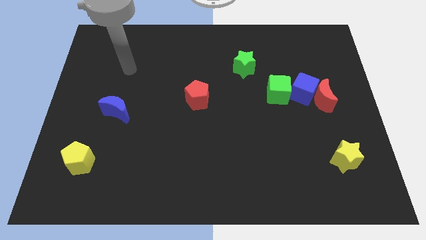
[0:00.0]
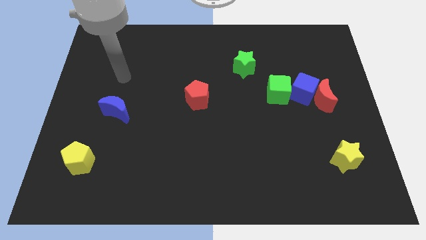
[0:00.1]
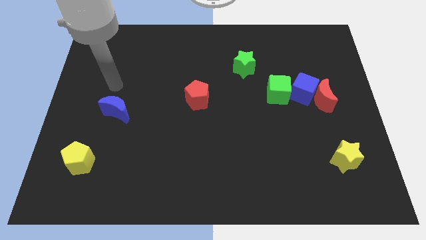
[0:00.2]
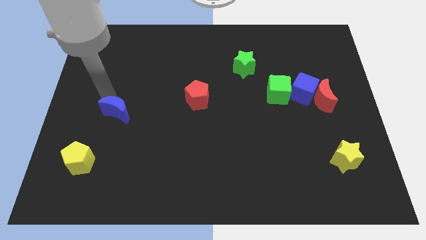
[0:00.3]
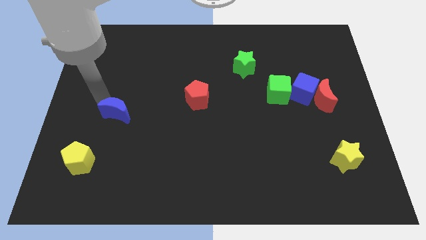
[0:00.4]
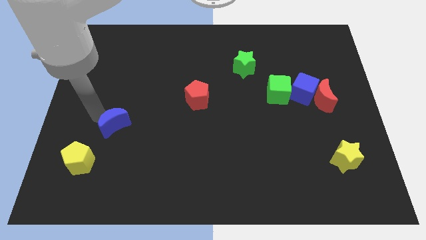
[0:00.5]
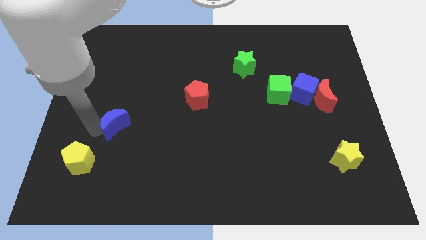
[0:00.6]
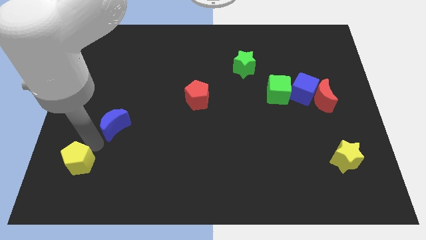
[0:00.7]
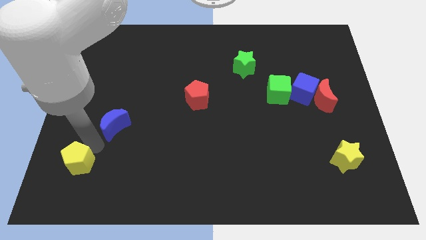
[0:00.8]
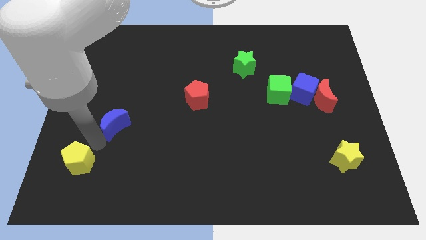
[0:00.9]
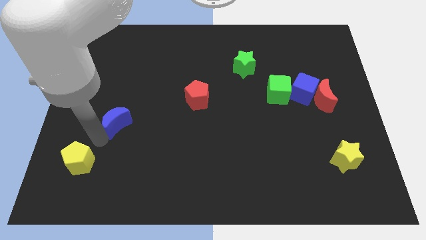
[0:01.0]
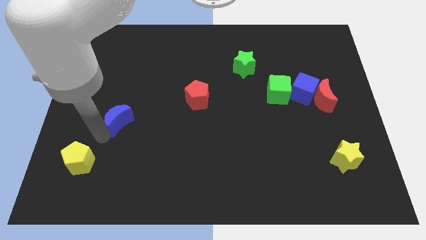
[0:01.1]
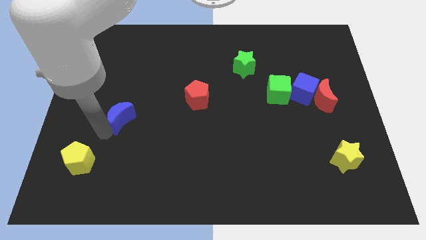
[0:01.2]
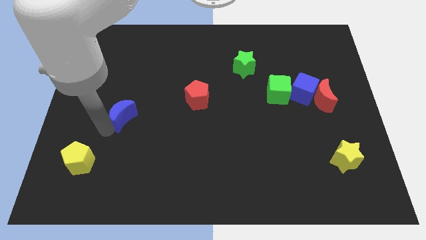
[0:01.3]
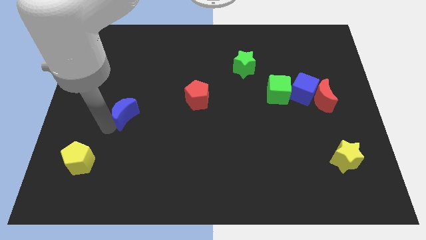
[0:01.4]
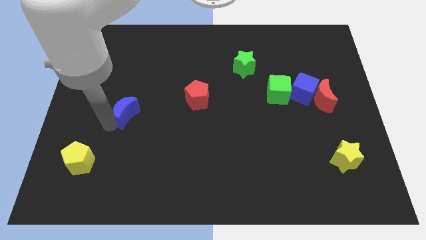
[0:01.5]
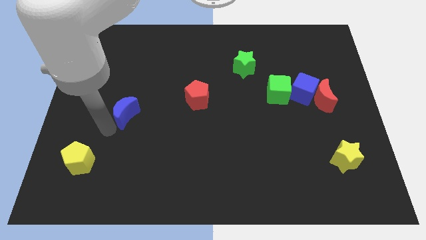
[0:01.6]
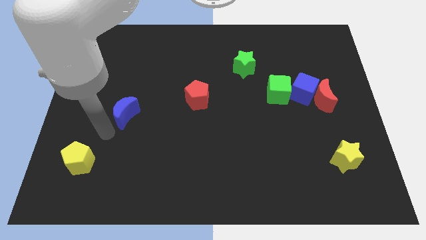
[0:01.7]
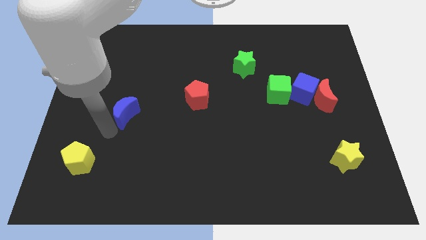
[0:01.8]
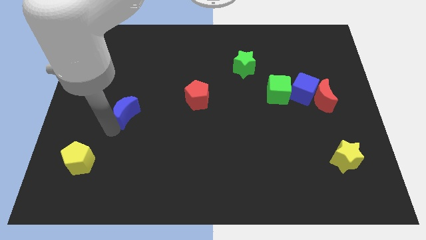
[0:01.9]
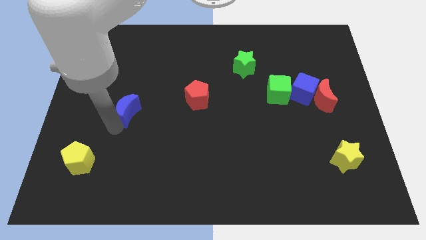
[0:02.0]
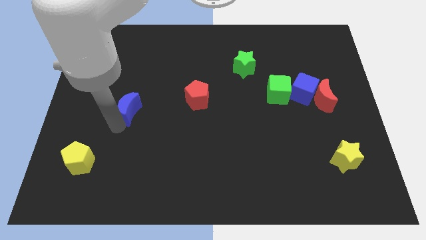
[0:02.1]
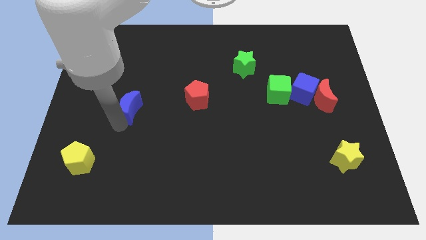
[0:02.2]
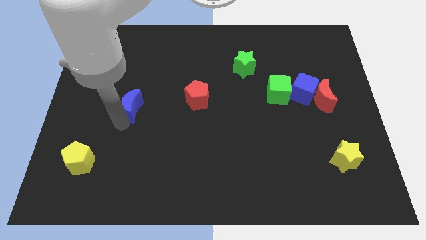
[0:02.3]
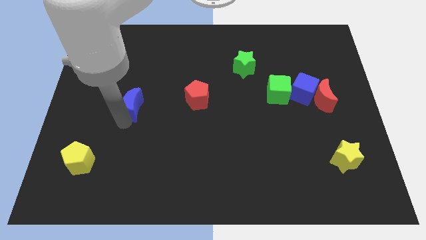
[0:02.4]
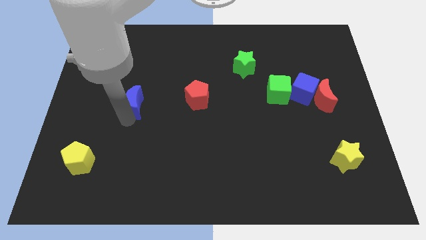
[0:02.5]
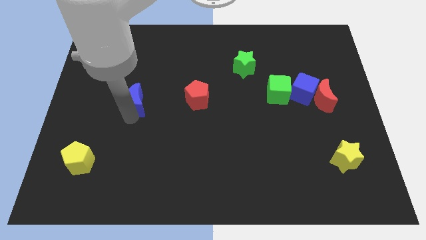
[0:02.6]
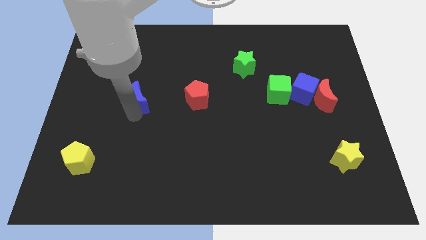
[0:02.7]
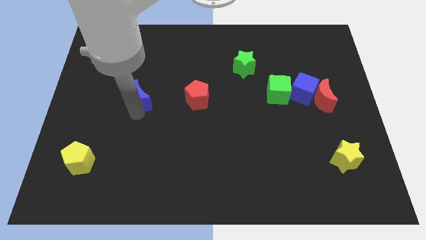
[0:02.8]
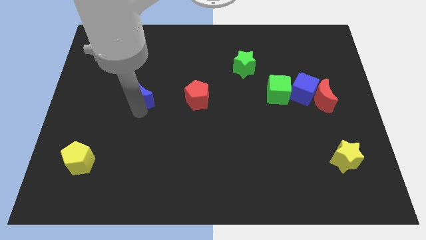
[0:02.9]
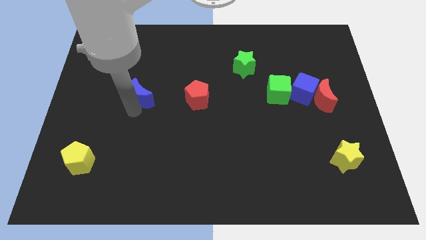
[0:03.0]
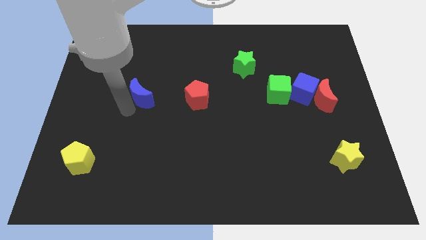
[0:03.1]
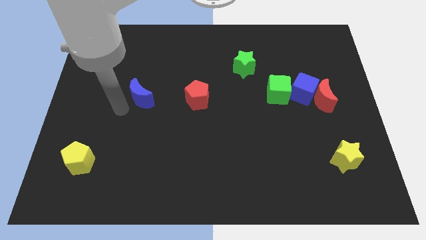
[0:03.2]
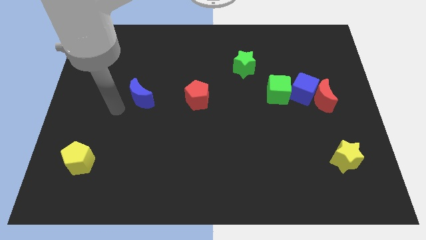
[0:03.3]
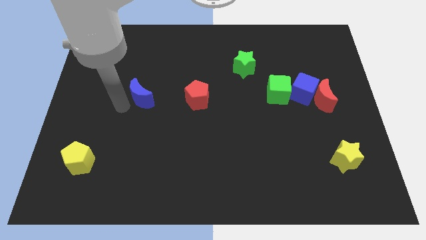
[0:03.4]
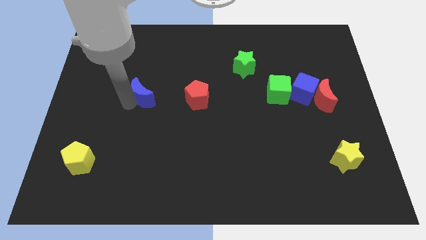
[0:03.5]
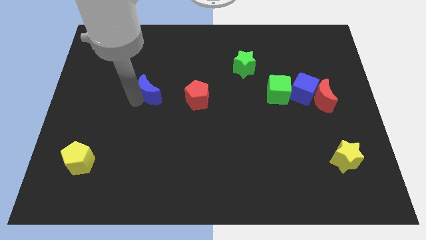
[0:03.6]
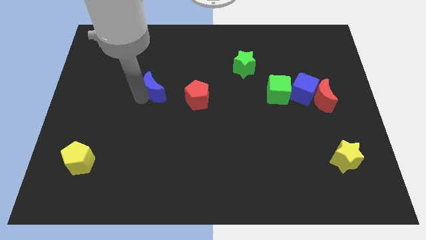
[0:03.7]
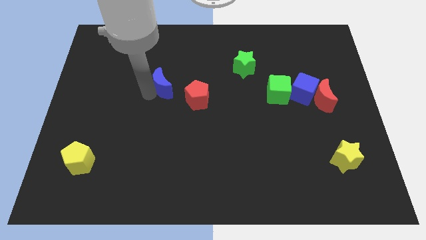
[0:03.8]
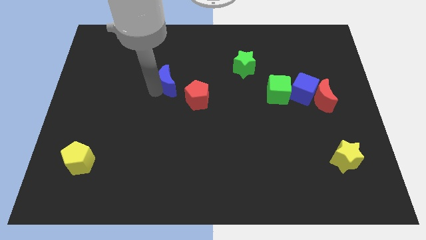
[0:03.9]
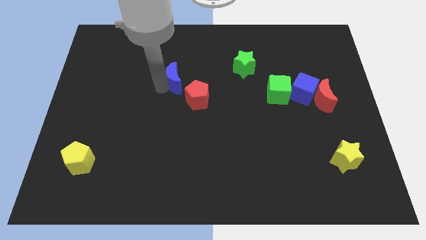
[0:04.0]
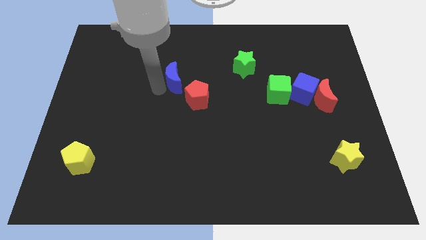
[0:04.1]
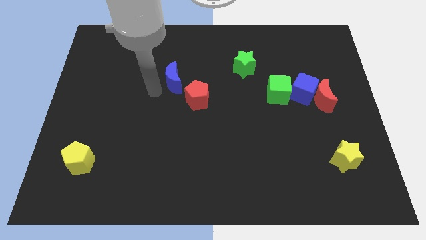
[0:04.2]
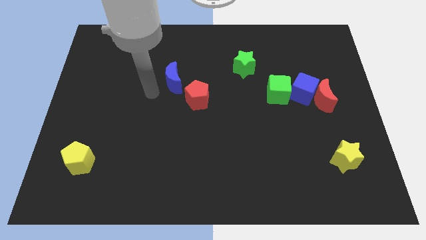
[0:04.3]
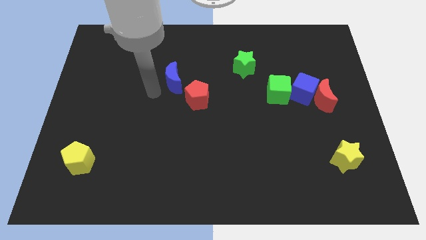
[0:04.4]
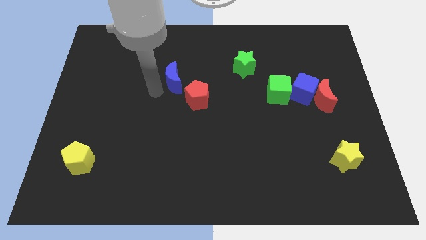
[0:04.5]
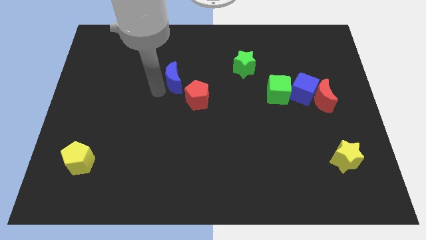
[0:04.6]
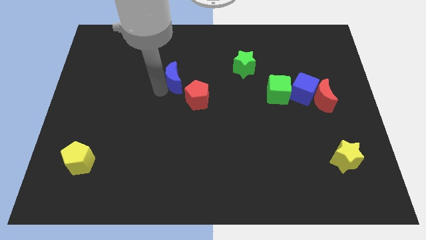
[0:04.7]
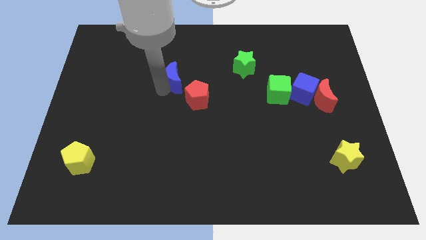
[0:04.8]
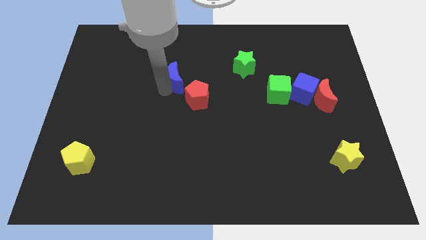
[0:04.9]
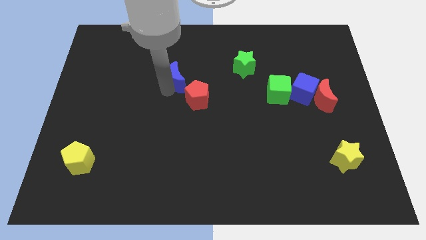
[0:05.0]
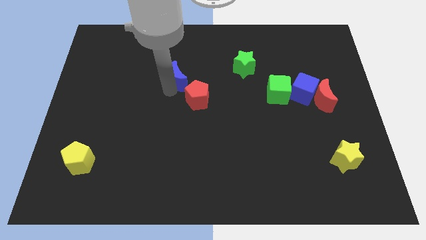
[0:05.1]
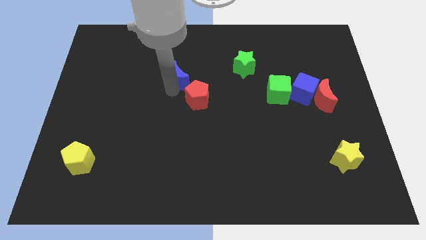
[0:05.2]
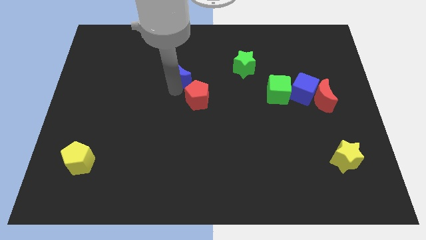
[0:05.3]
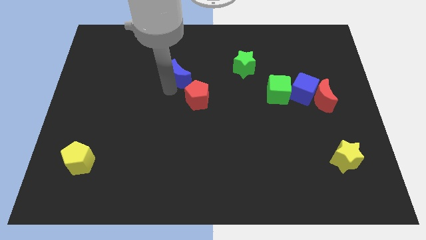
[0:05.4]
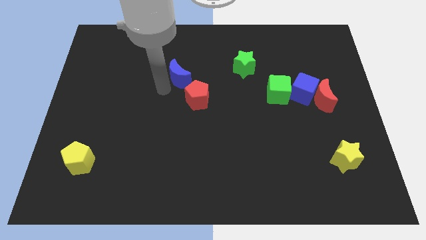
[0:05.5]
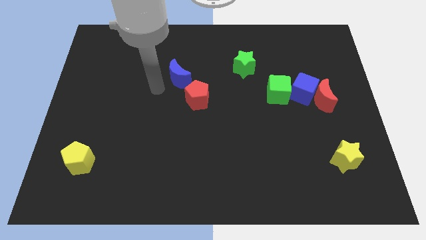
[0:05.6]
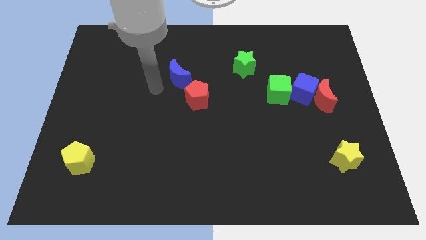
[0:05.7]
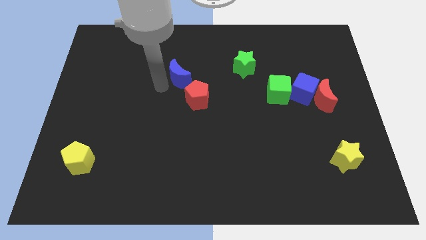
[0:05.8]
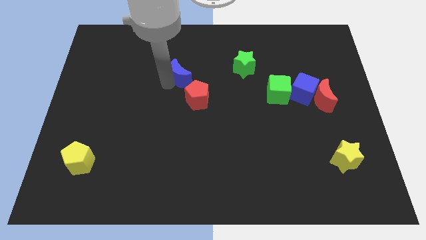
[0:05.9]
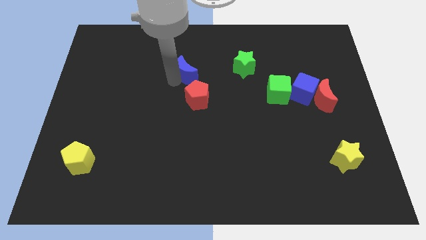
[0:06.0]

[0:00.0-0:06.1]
slide the blue moon to the left of the green star
